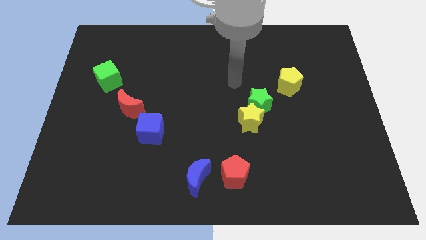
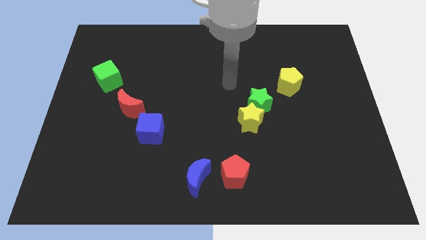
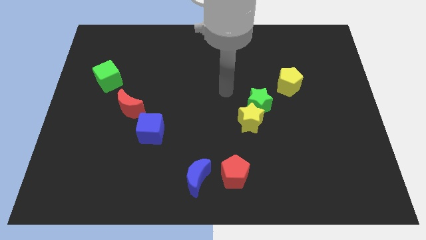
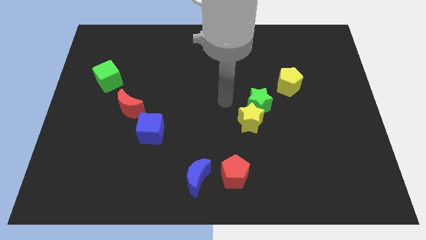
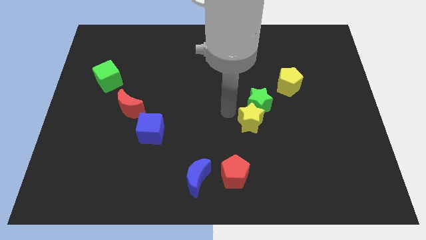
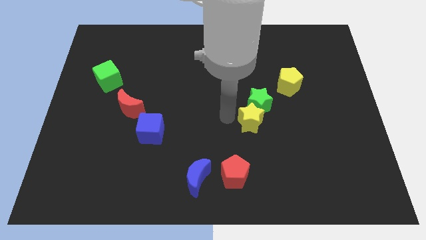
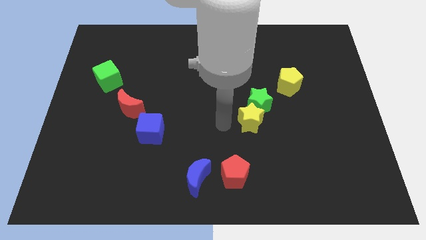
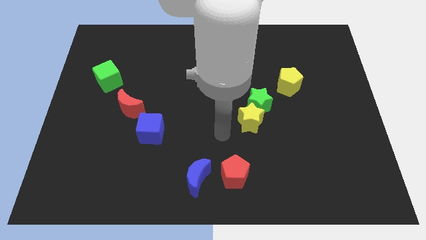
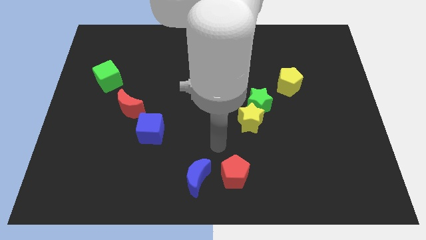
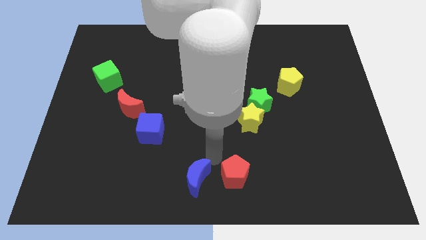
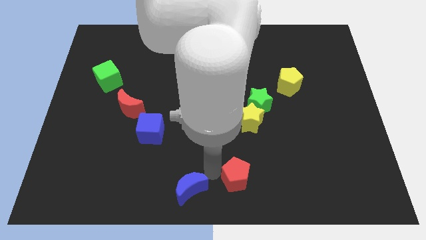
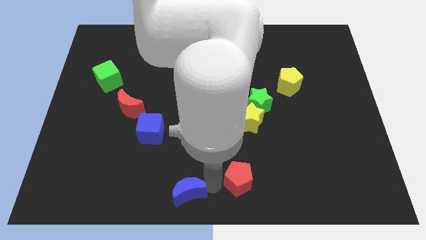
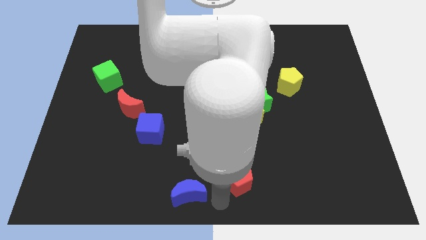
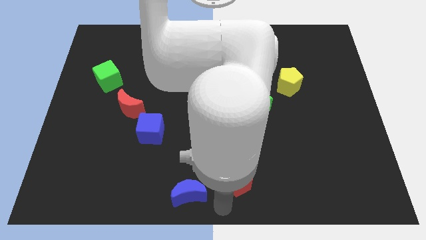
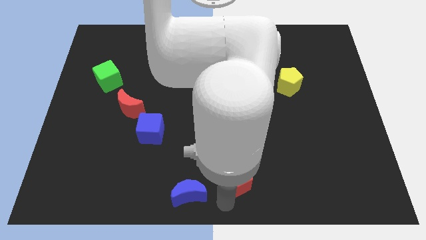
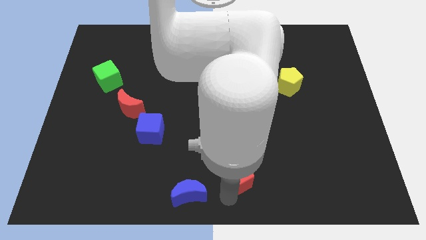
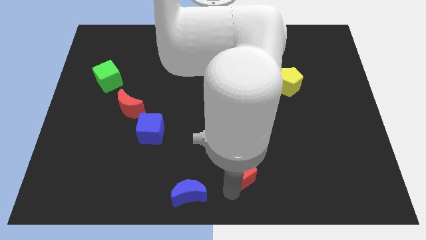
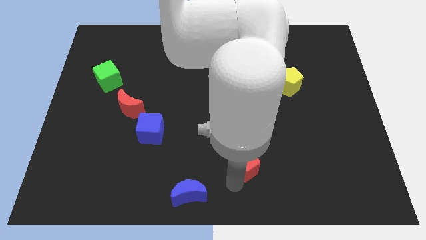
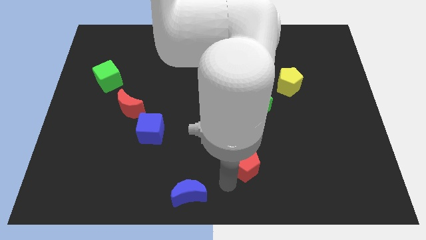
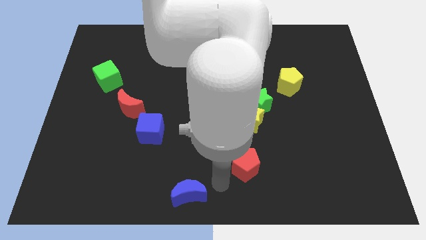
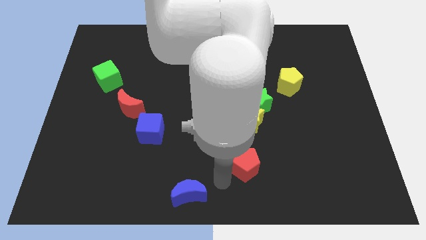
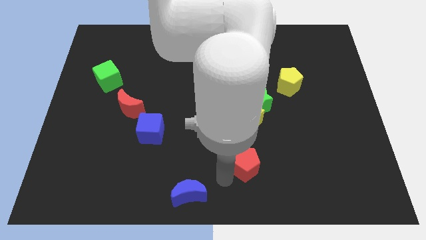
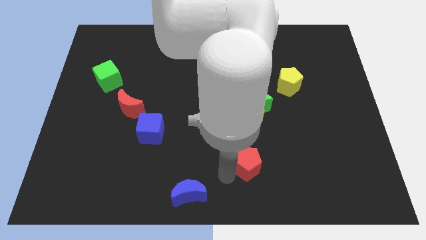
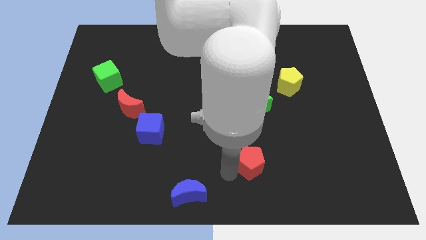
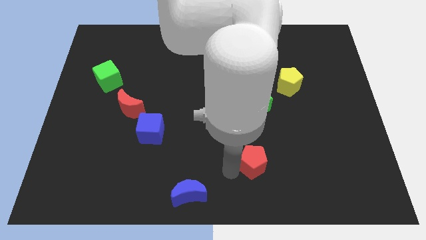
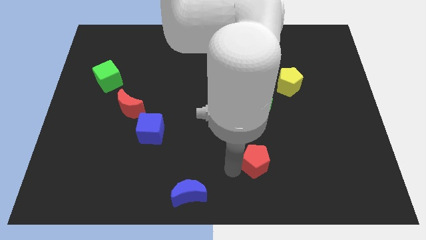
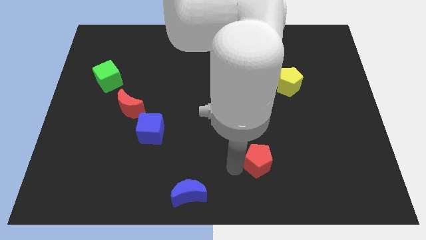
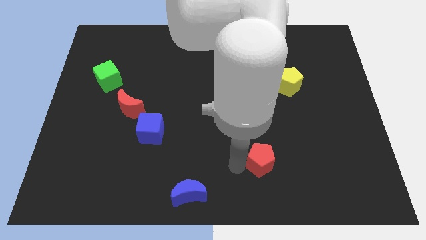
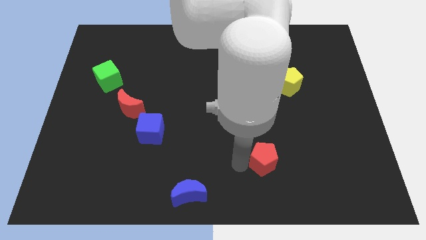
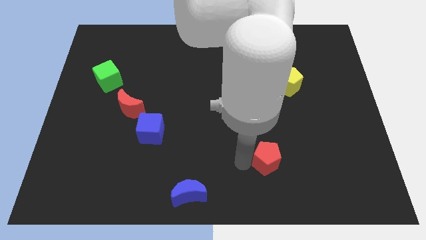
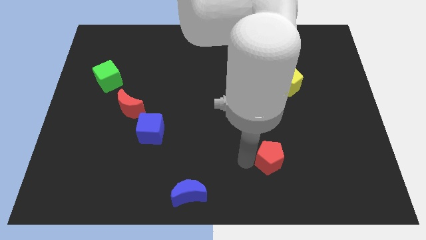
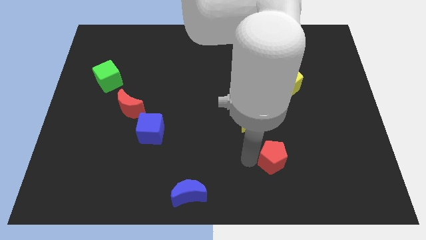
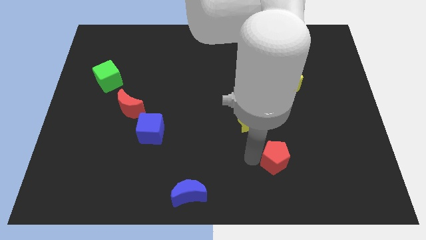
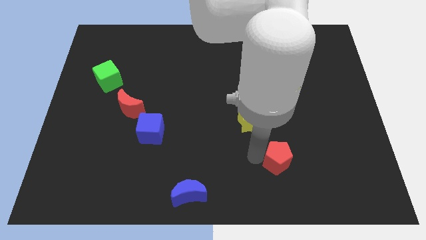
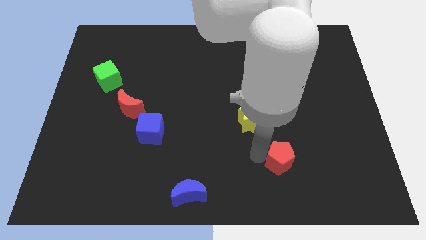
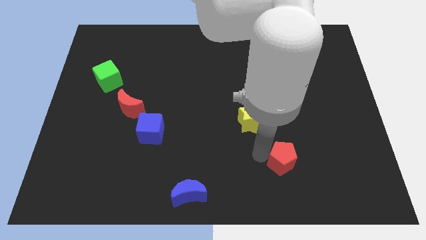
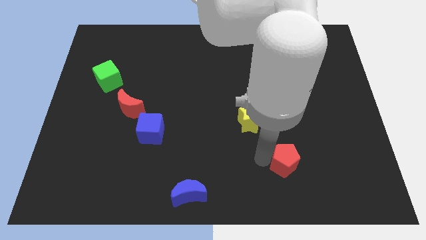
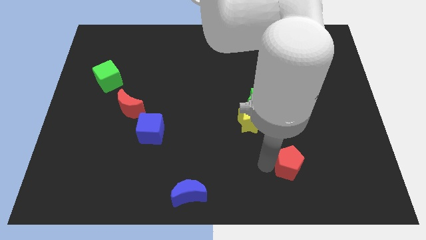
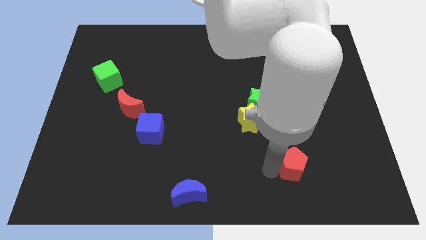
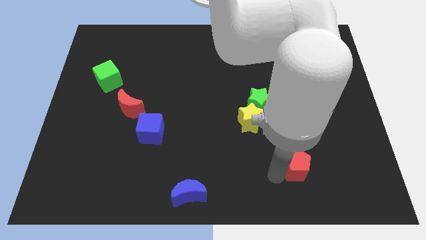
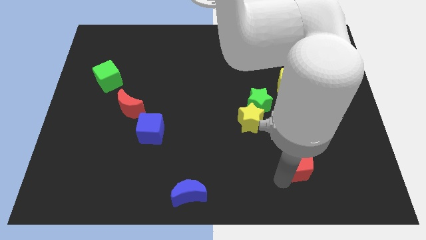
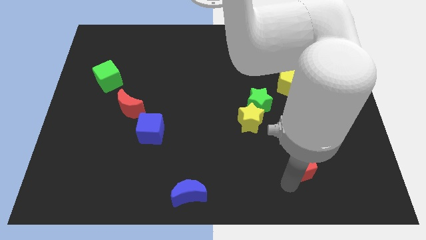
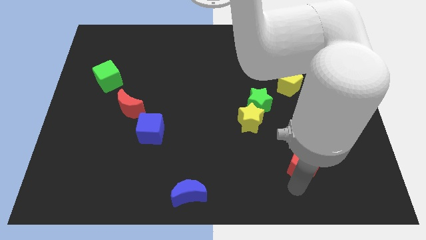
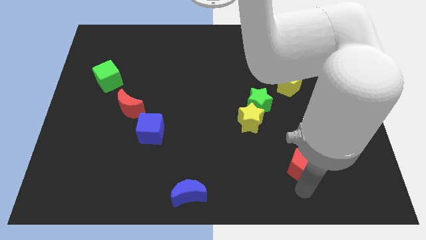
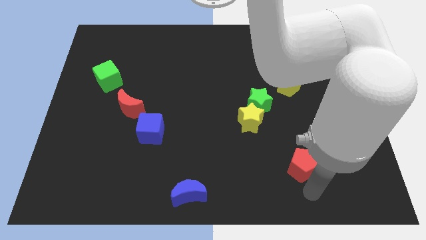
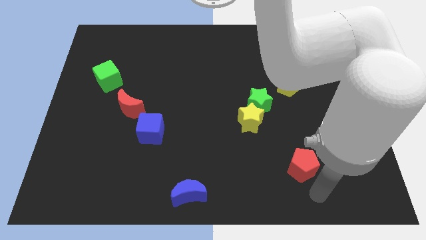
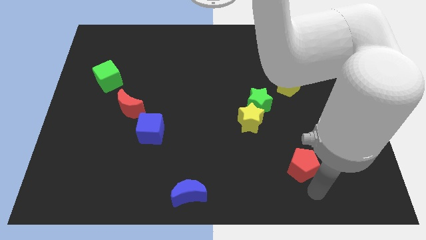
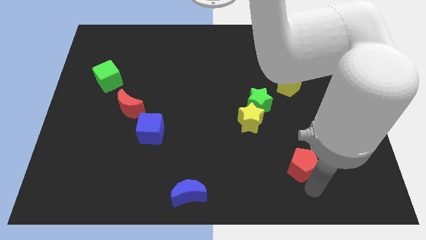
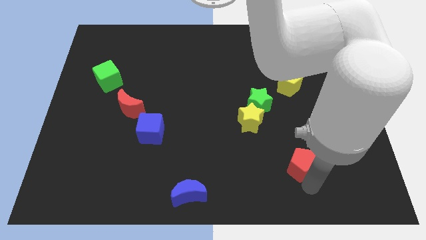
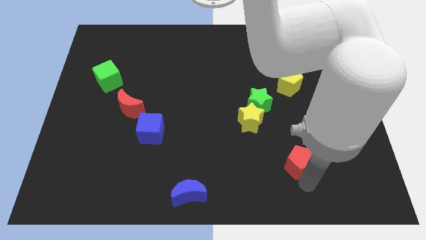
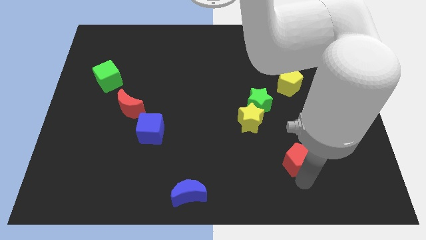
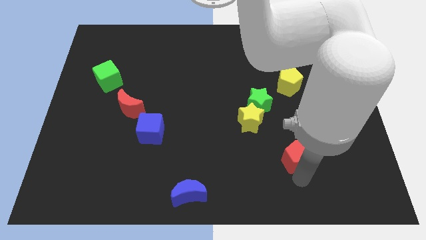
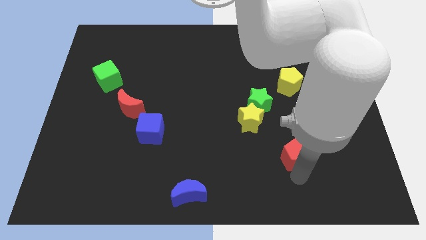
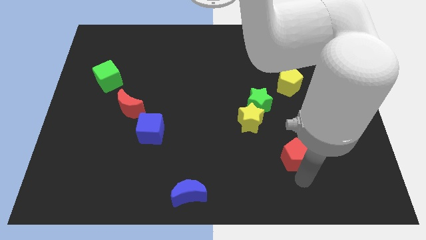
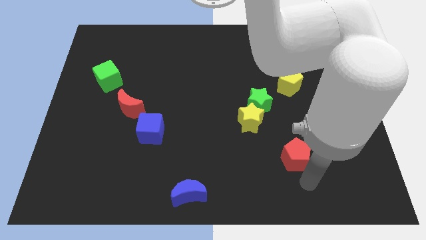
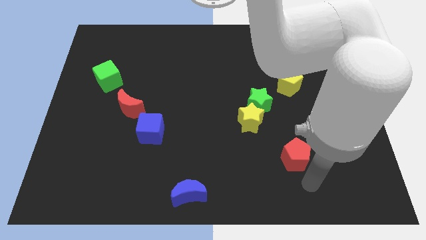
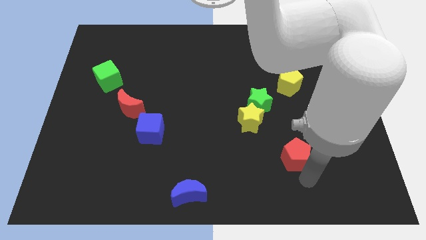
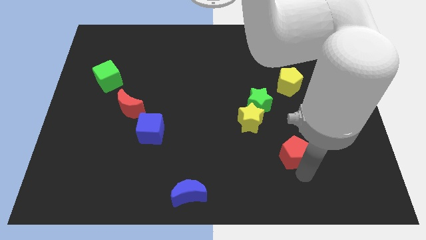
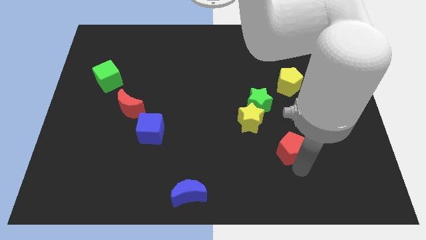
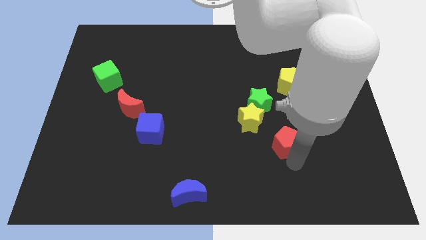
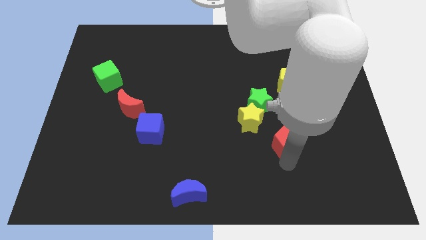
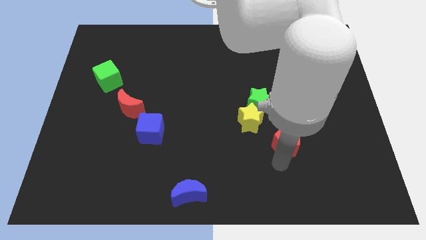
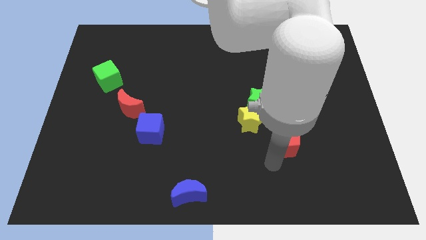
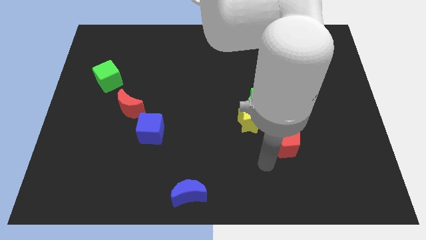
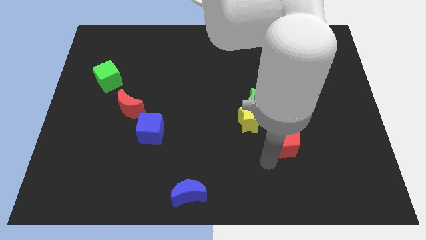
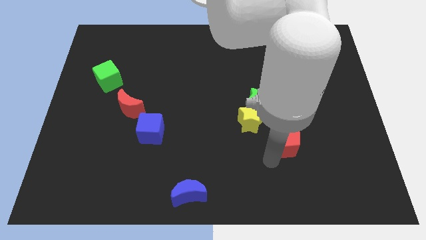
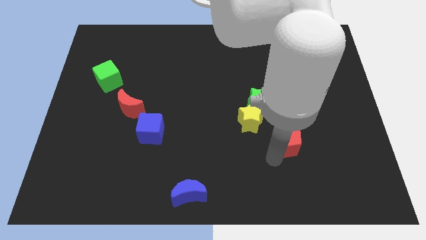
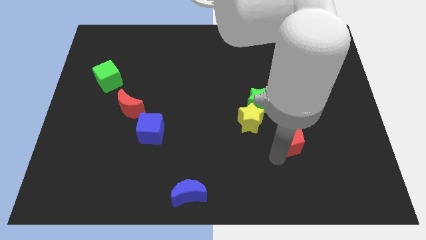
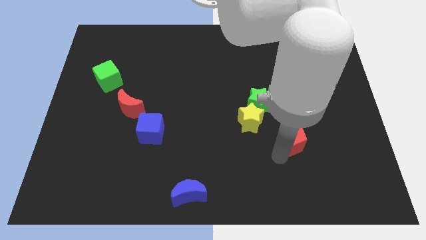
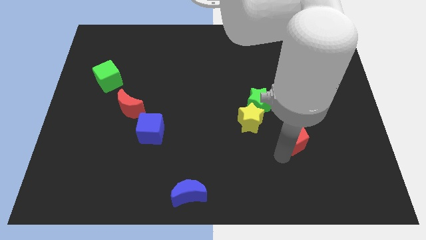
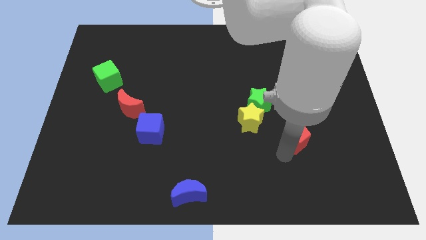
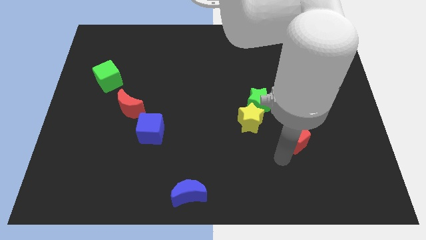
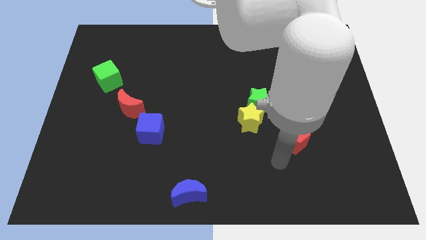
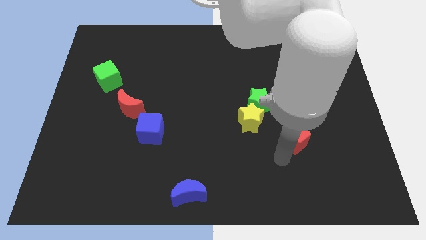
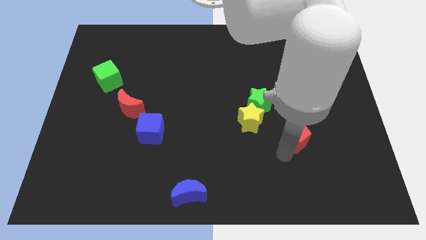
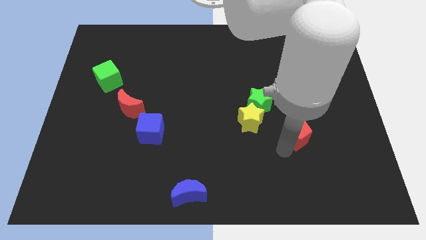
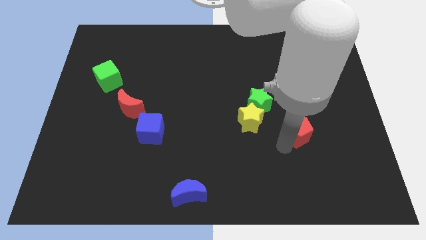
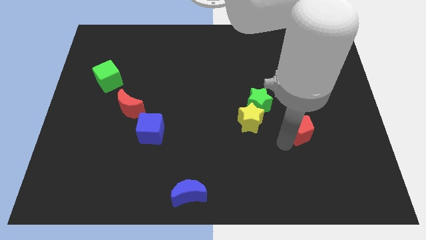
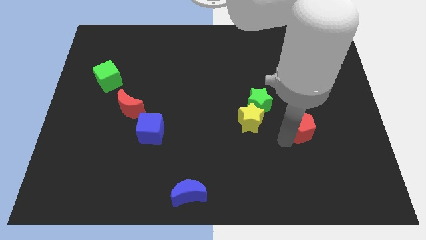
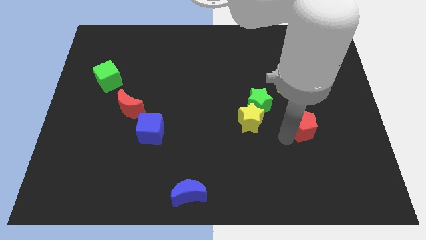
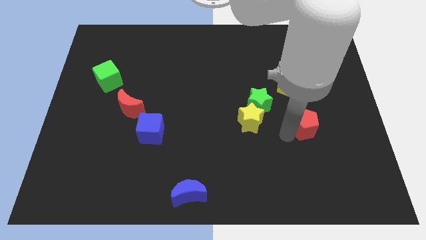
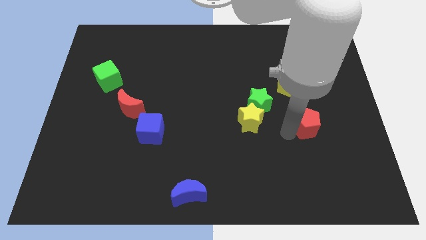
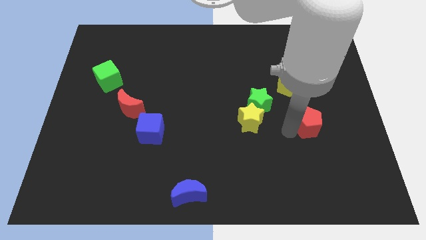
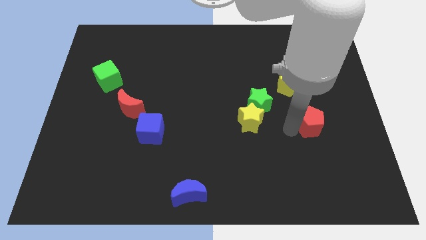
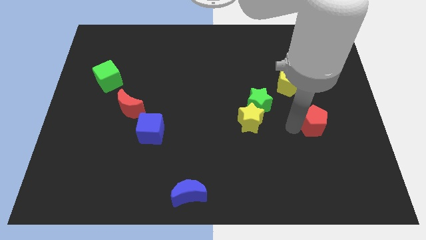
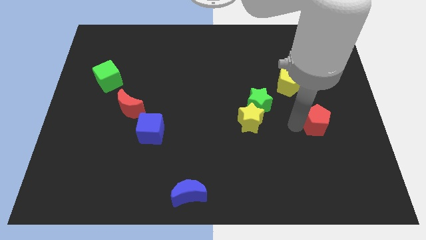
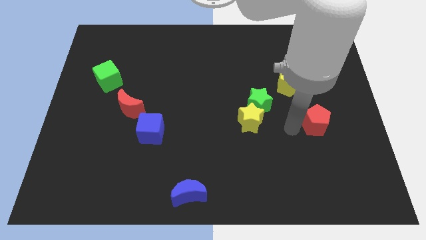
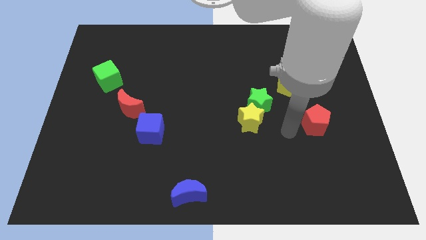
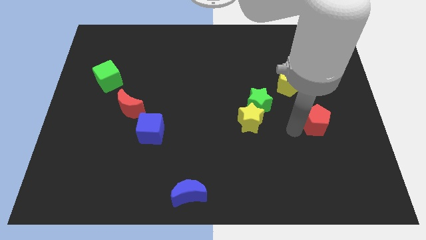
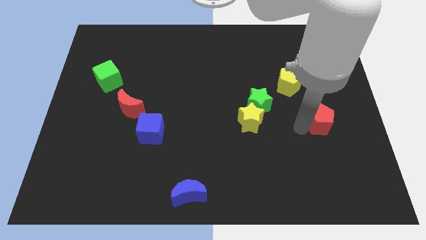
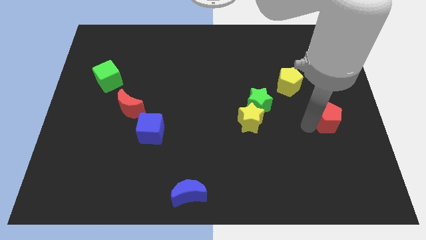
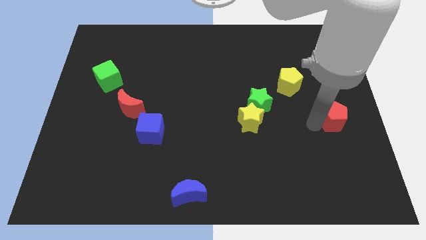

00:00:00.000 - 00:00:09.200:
slide the red pentagon to the right side of the board
